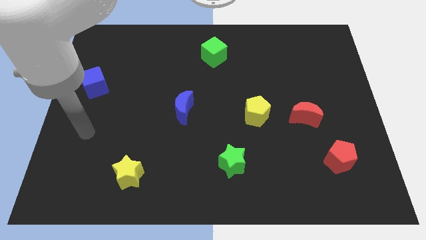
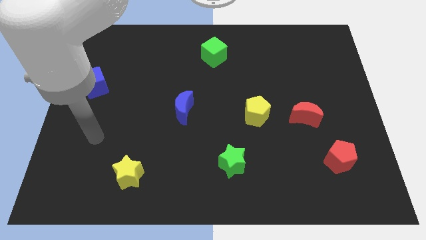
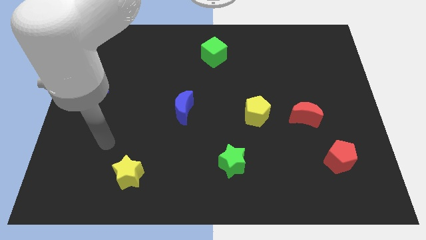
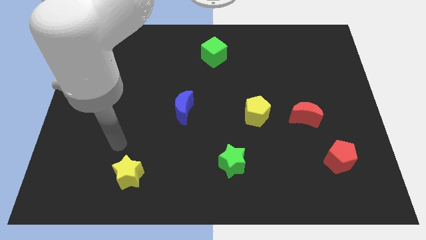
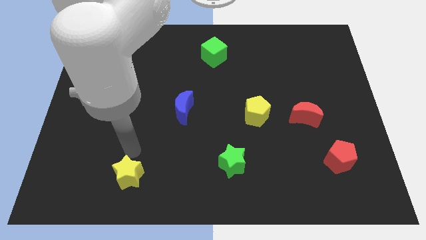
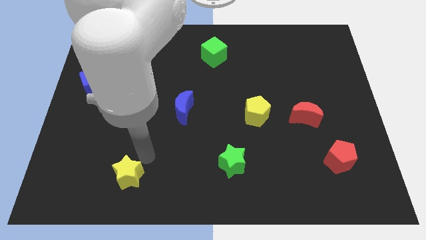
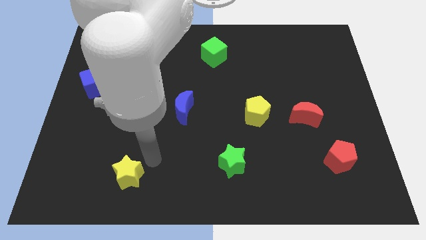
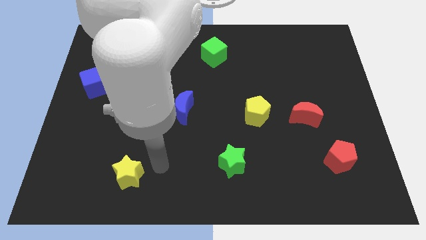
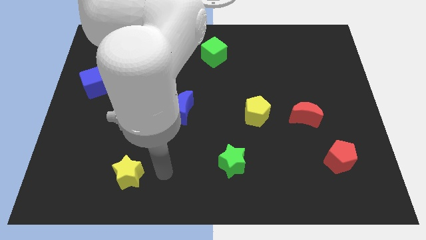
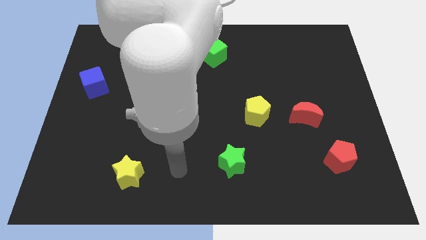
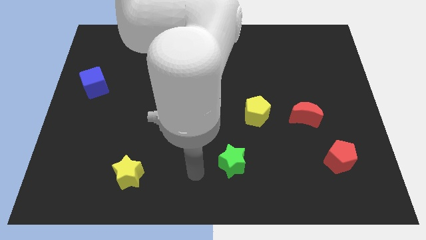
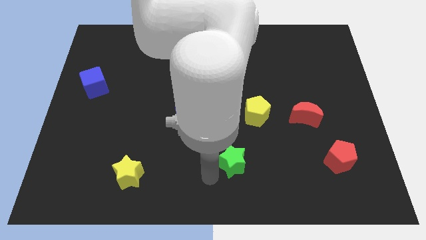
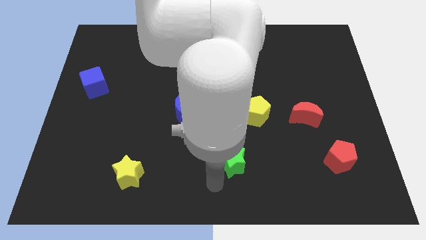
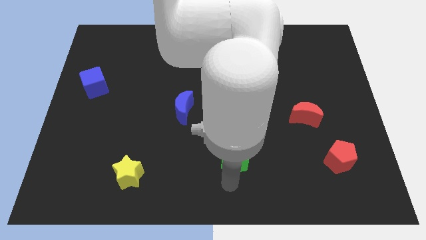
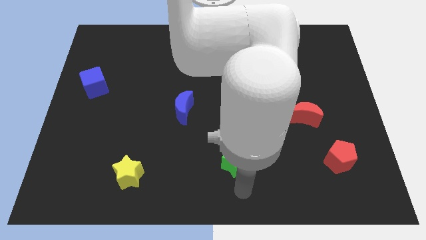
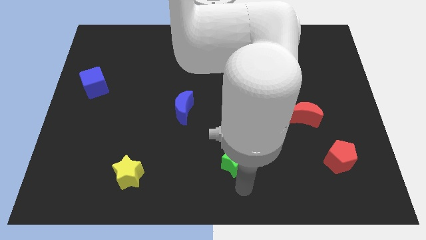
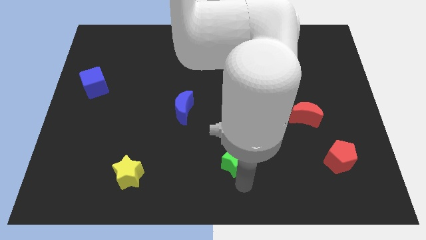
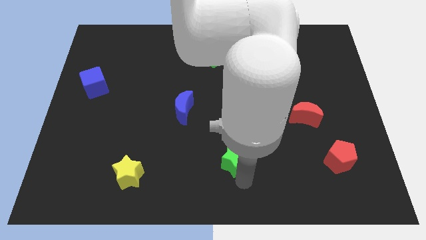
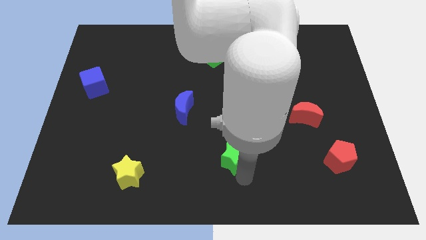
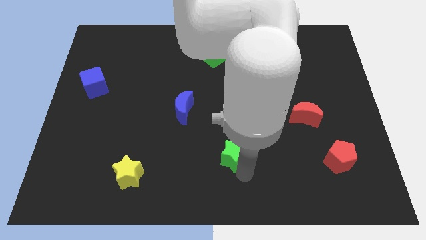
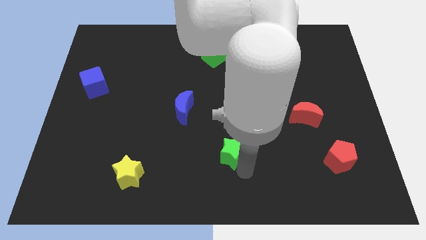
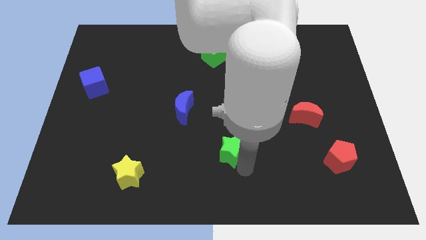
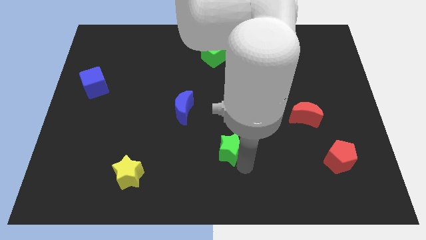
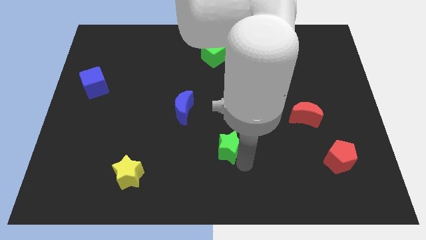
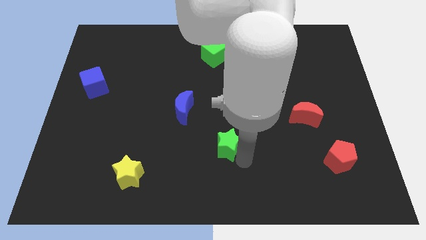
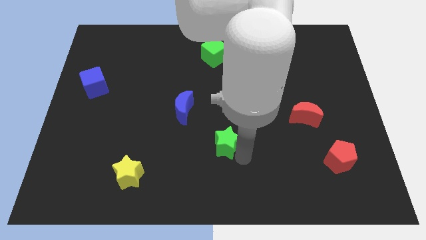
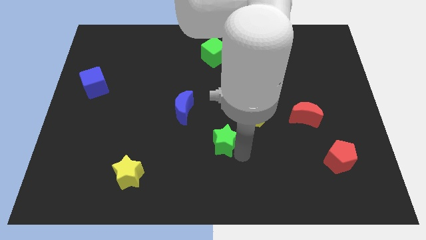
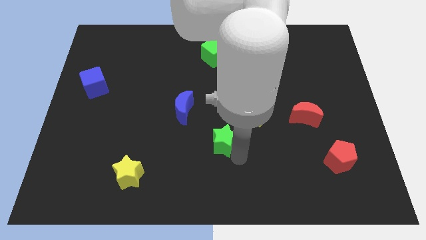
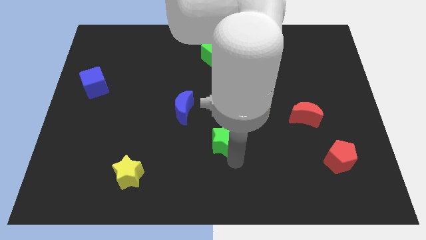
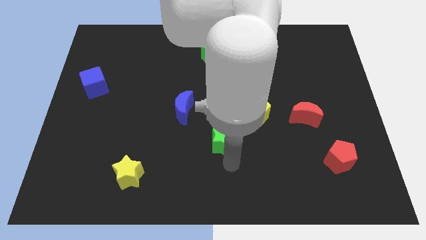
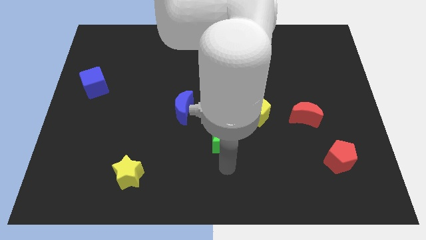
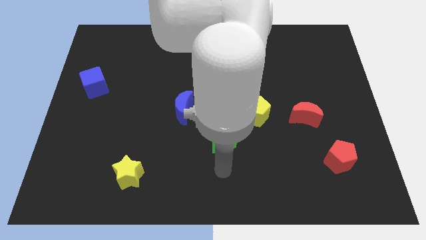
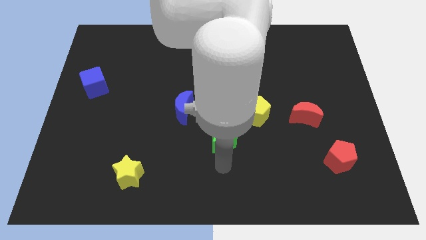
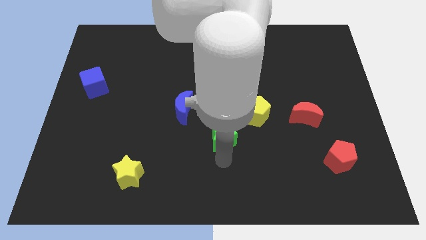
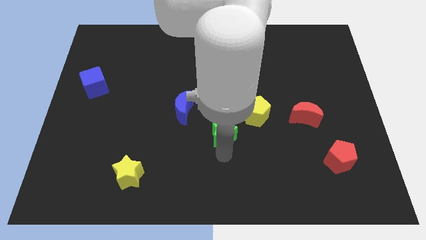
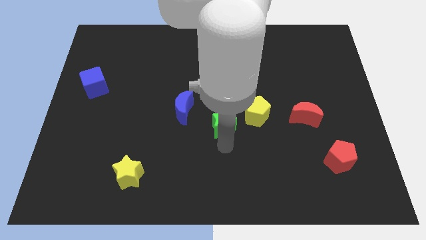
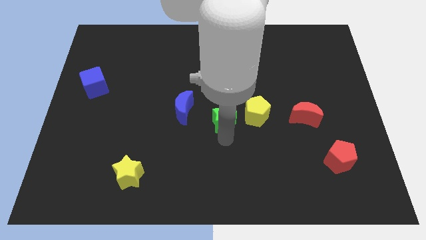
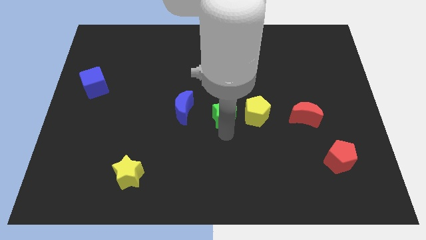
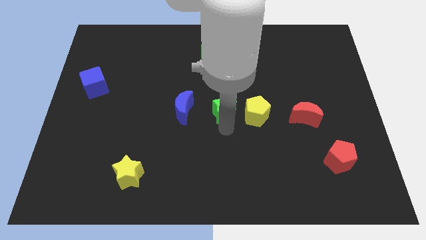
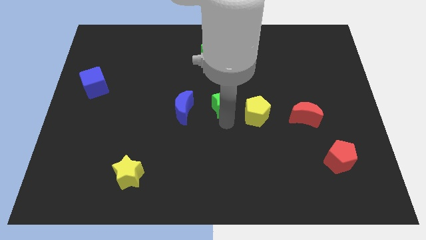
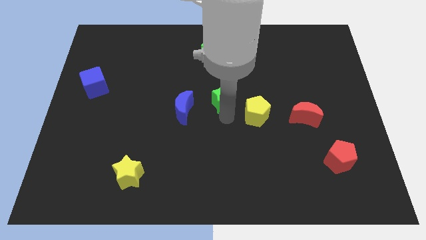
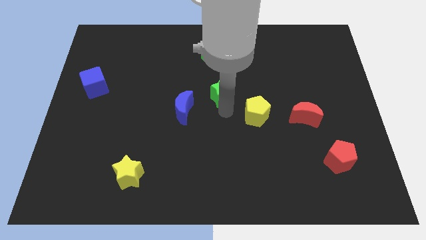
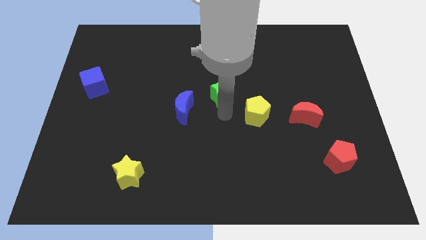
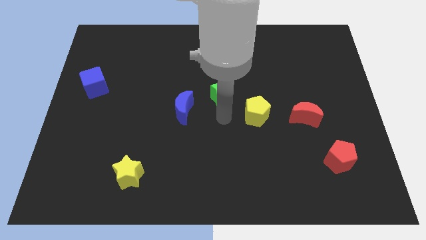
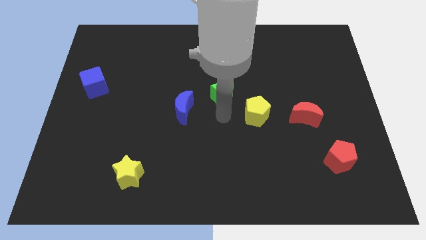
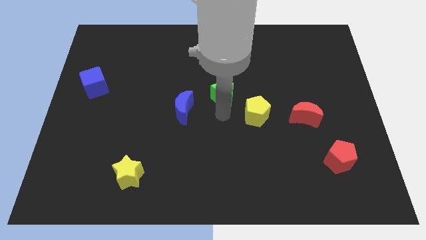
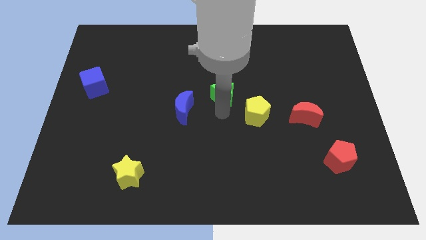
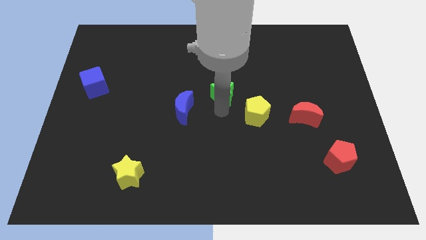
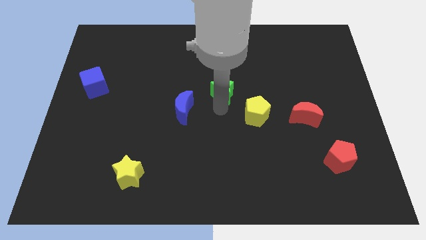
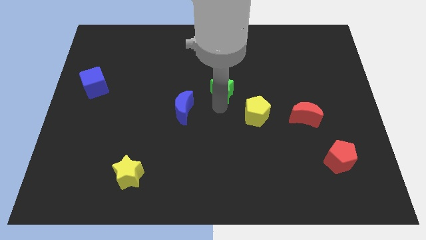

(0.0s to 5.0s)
slide the green star up

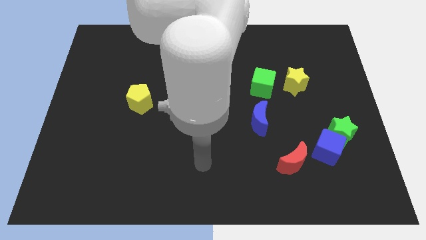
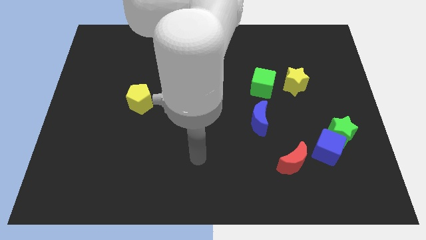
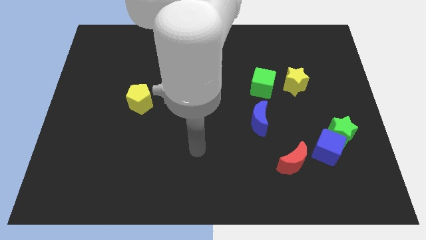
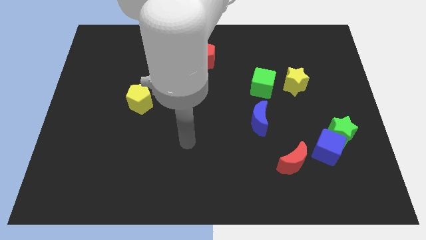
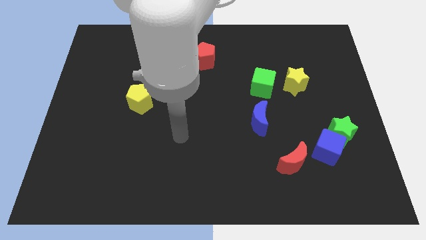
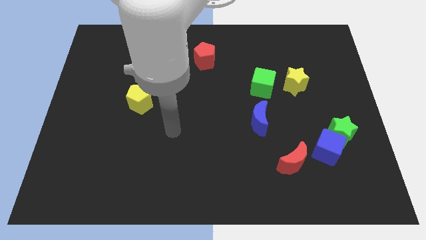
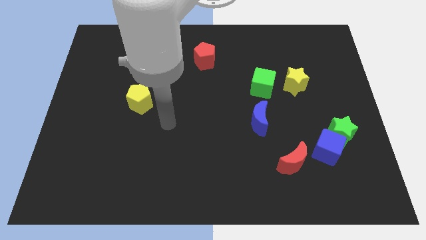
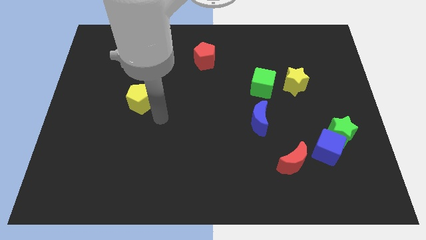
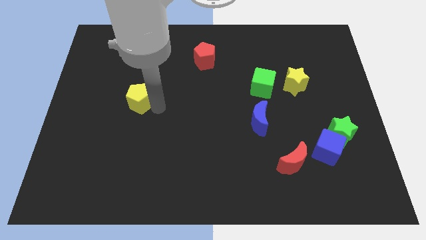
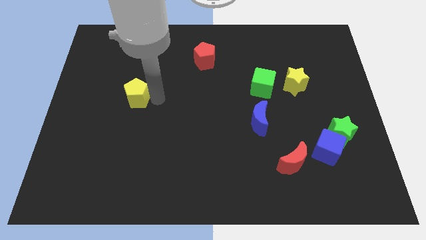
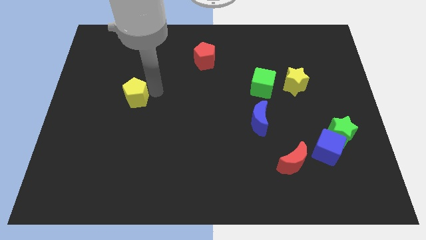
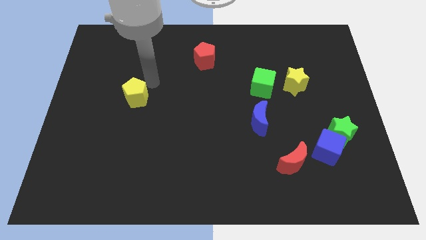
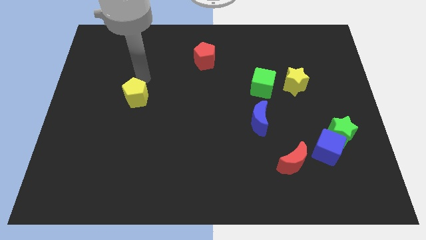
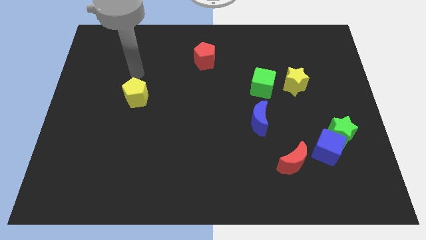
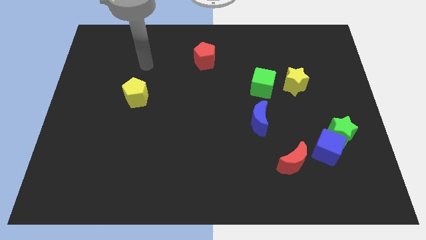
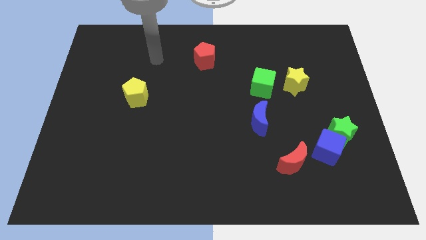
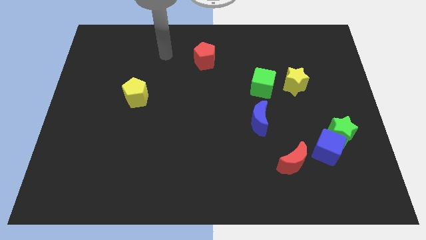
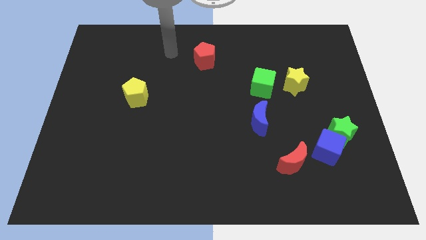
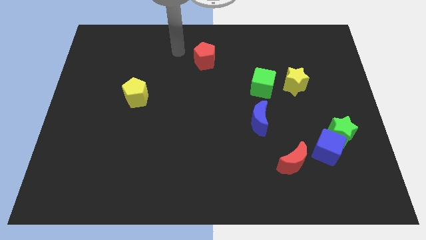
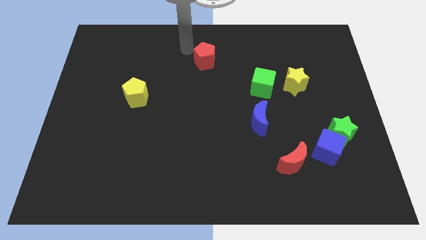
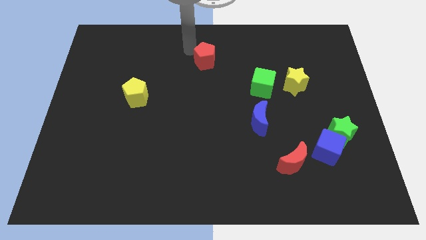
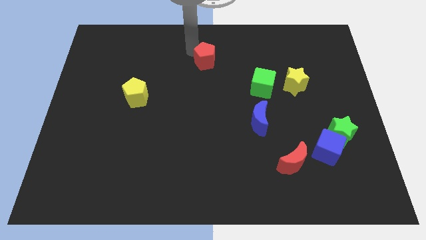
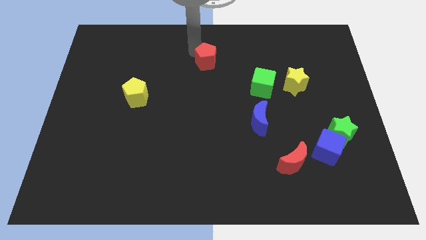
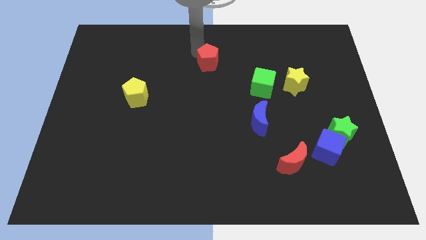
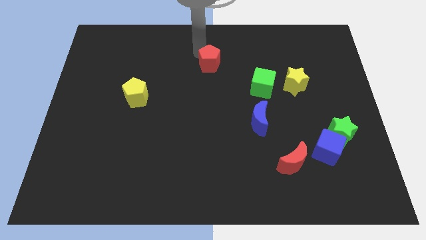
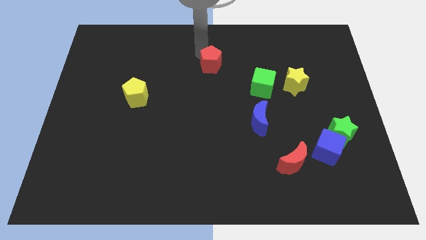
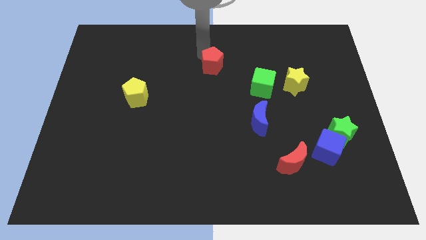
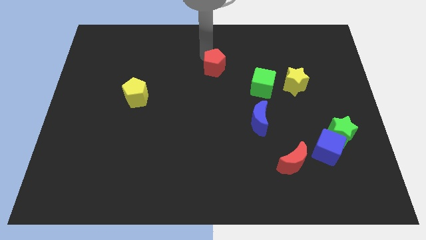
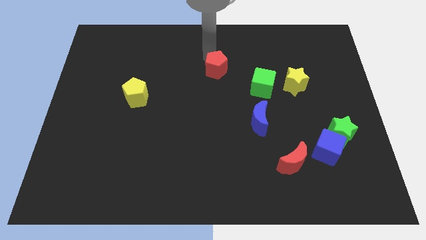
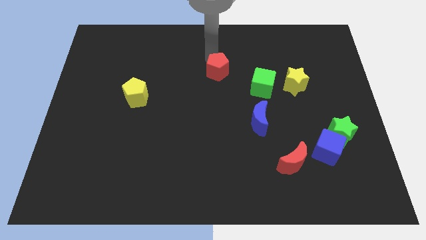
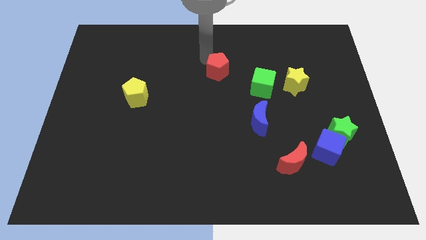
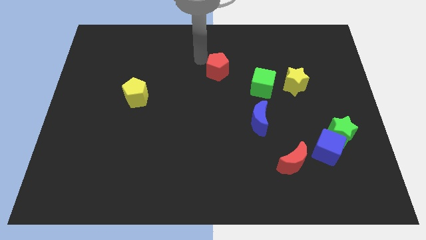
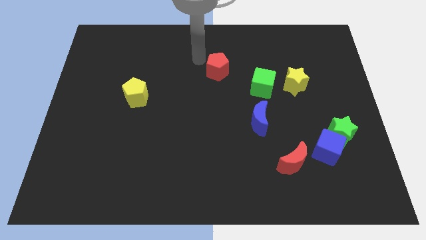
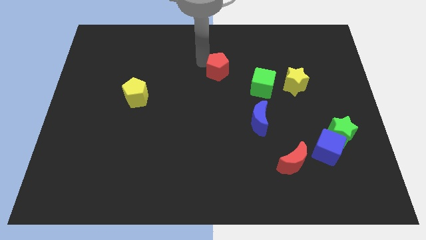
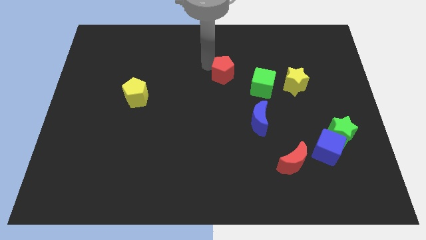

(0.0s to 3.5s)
push the red pentagon a little downwards and to the right diagonally
